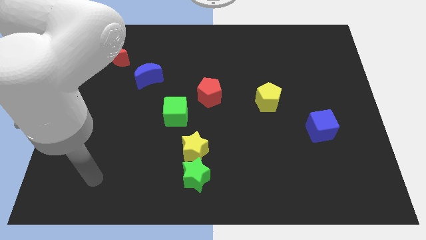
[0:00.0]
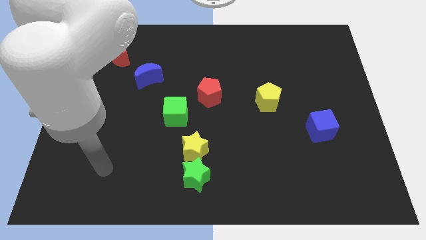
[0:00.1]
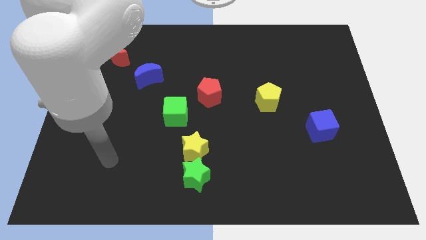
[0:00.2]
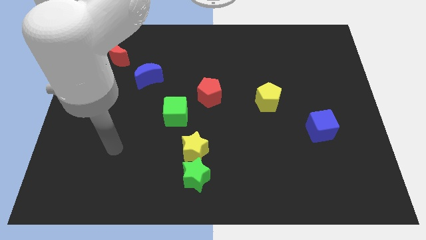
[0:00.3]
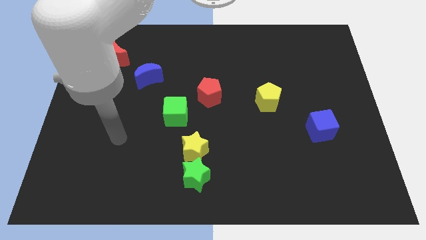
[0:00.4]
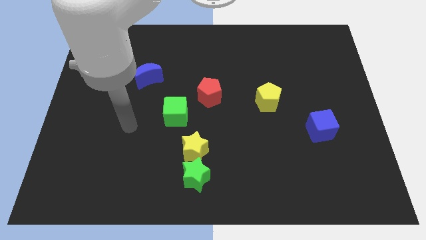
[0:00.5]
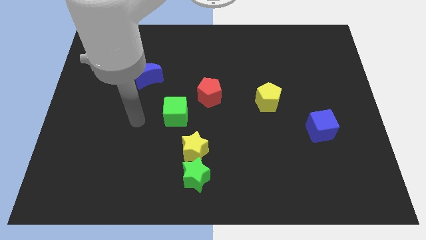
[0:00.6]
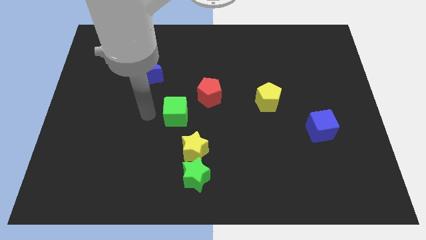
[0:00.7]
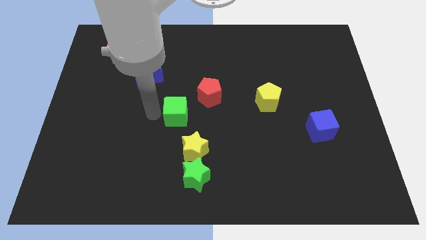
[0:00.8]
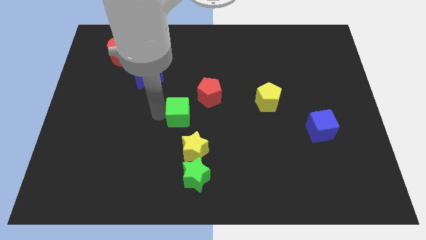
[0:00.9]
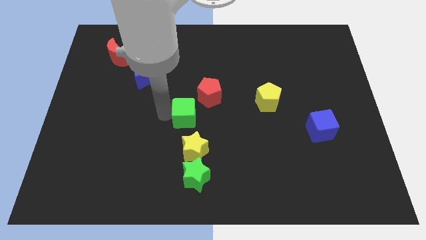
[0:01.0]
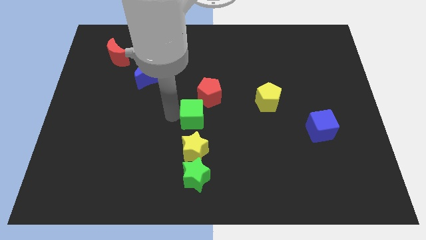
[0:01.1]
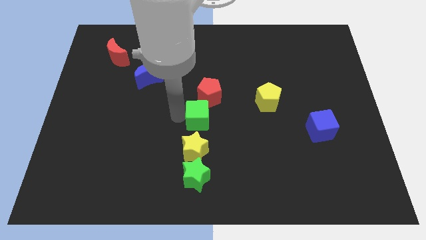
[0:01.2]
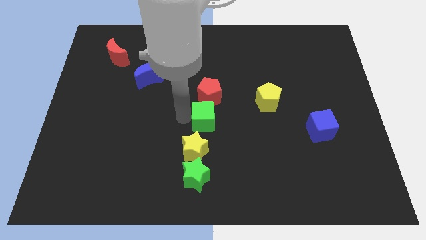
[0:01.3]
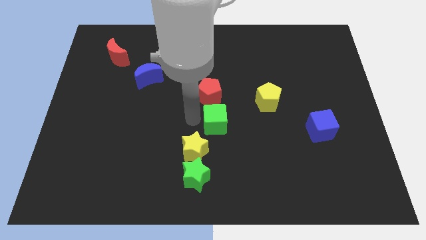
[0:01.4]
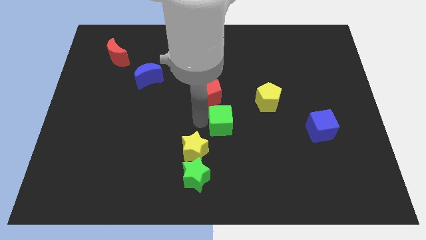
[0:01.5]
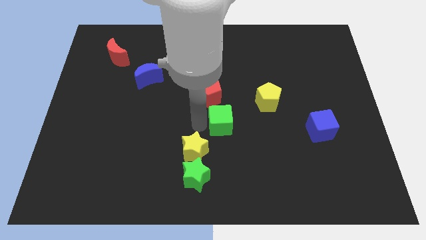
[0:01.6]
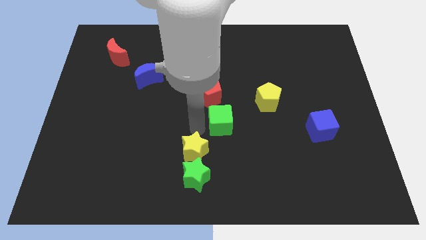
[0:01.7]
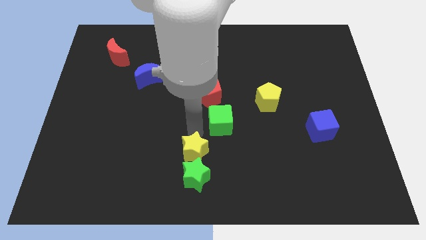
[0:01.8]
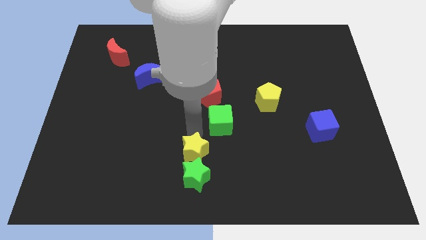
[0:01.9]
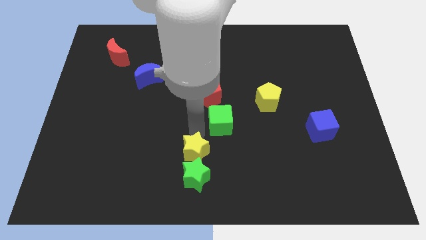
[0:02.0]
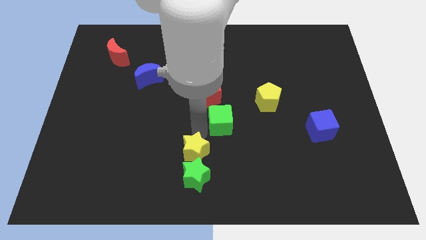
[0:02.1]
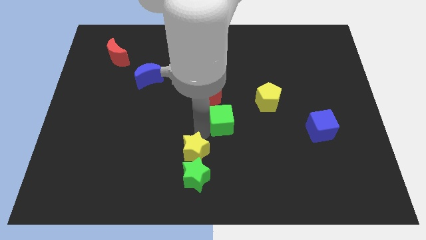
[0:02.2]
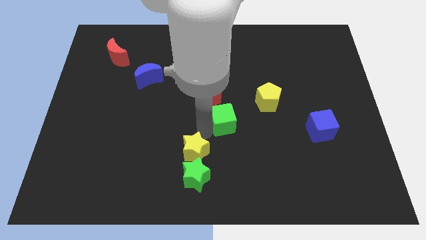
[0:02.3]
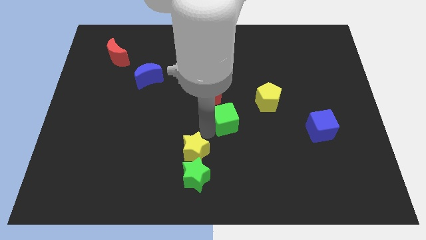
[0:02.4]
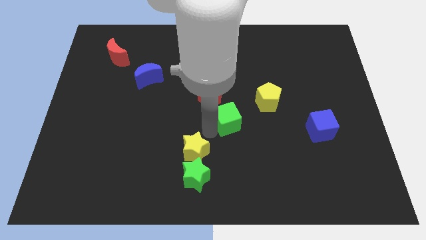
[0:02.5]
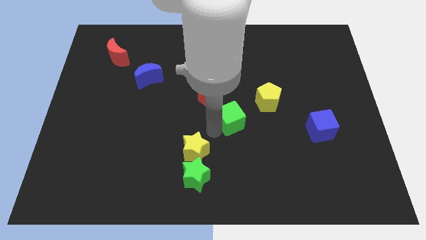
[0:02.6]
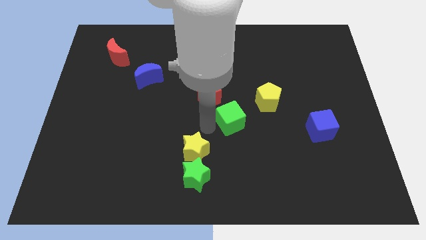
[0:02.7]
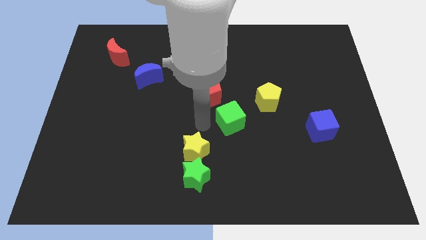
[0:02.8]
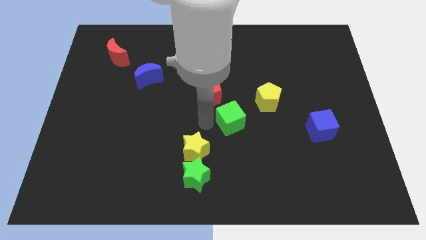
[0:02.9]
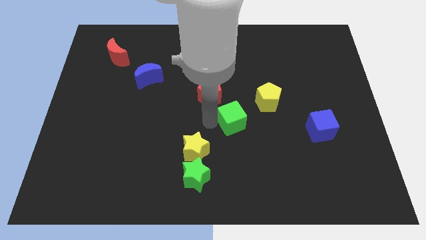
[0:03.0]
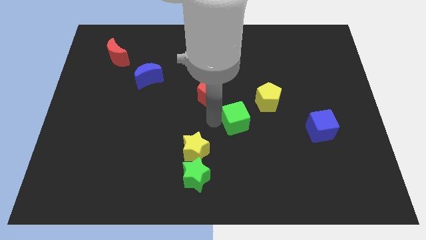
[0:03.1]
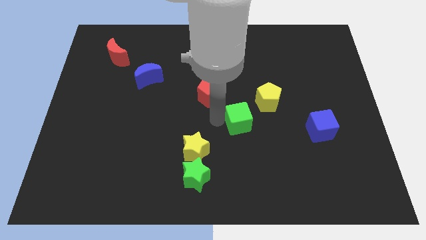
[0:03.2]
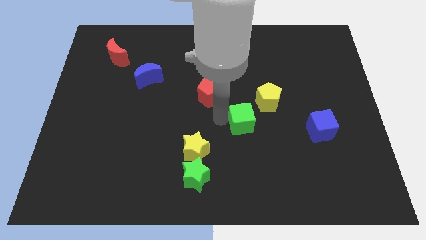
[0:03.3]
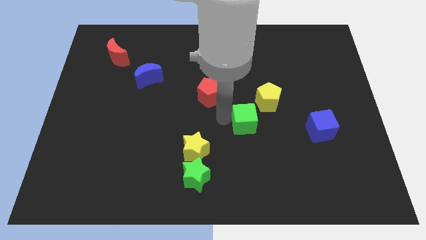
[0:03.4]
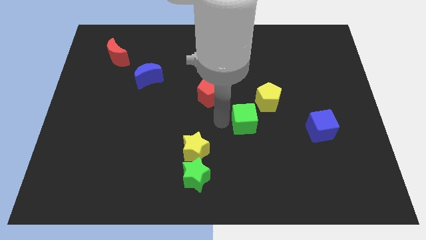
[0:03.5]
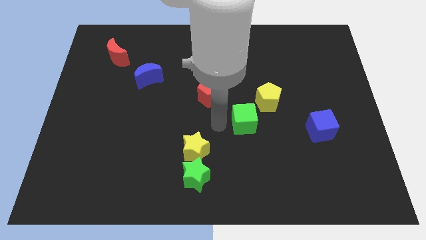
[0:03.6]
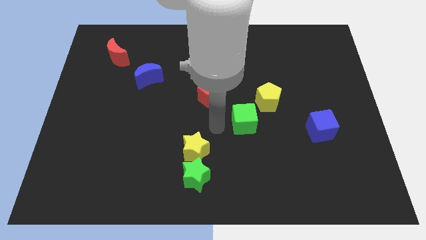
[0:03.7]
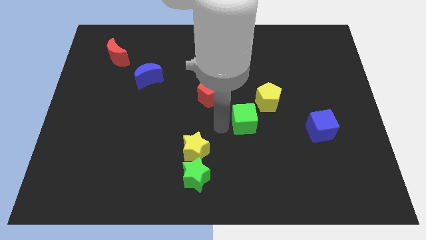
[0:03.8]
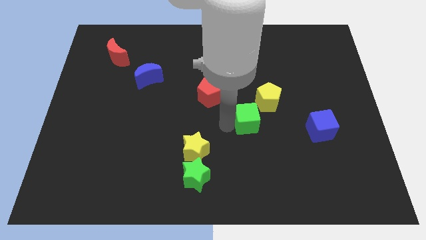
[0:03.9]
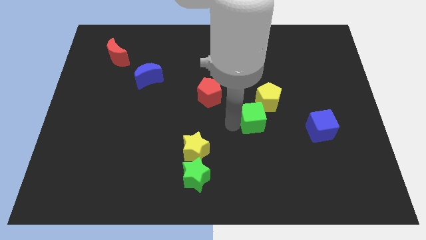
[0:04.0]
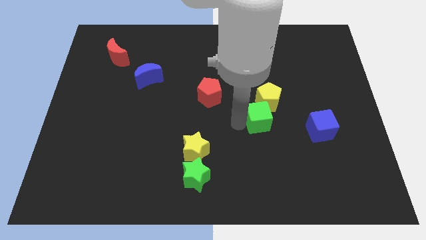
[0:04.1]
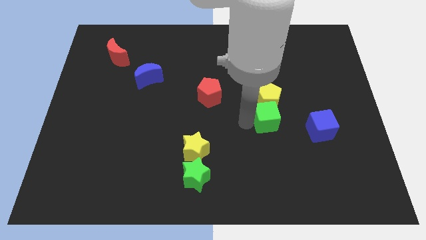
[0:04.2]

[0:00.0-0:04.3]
move the green cube to the right

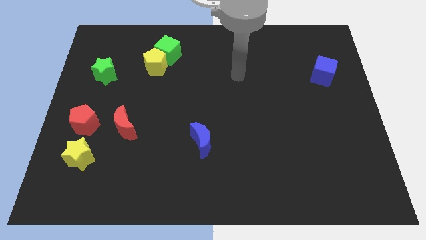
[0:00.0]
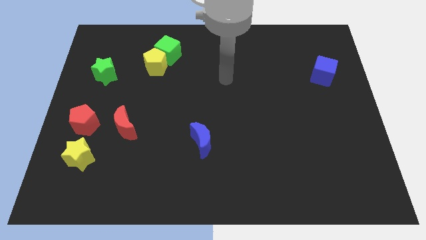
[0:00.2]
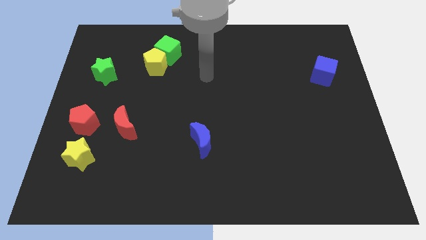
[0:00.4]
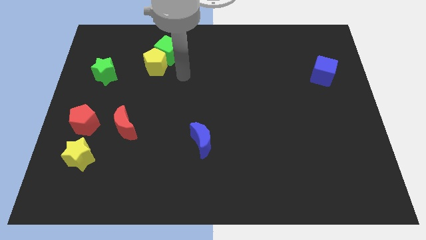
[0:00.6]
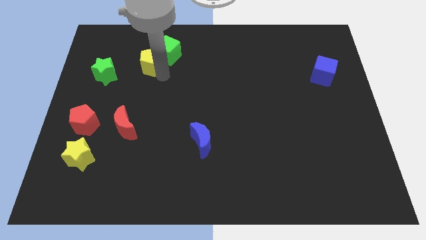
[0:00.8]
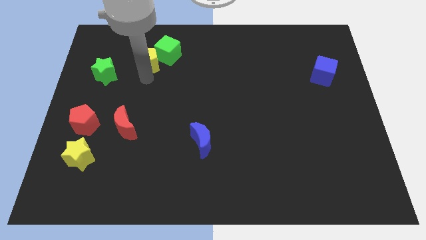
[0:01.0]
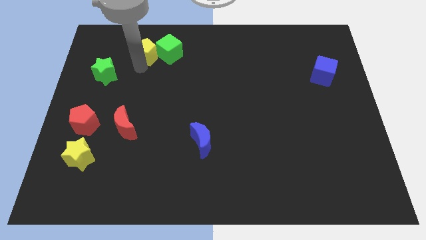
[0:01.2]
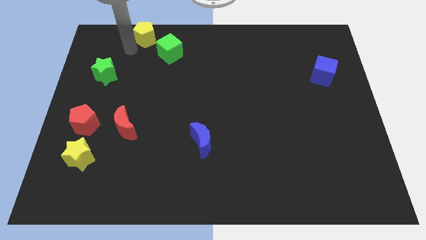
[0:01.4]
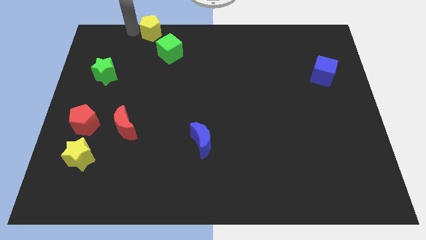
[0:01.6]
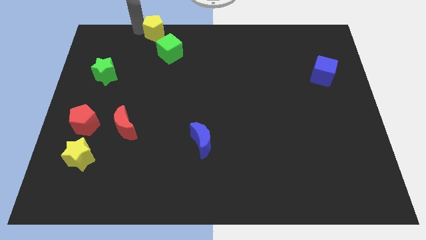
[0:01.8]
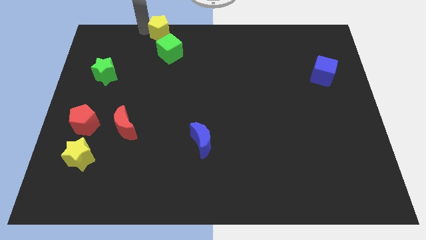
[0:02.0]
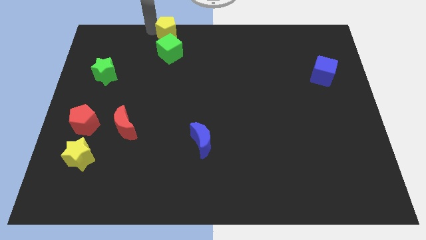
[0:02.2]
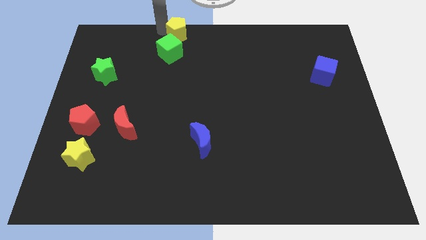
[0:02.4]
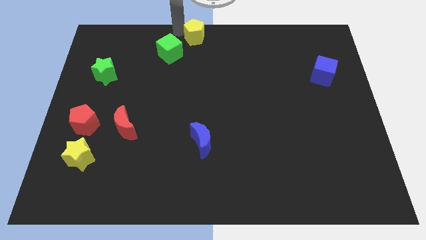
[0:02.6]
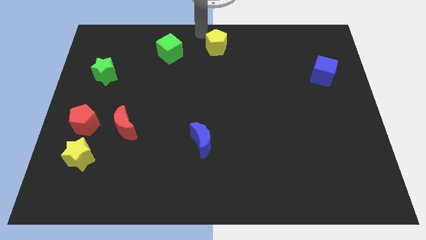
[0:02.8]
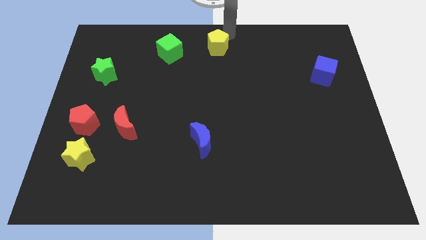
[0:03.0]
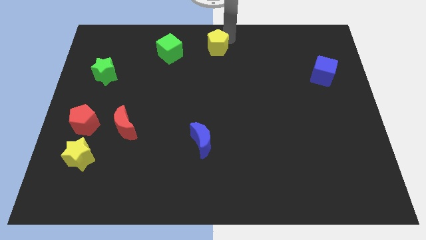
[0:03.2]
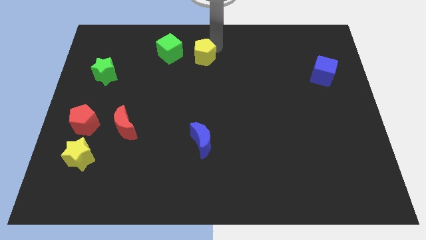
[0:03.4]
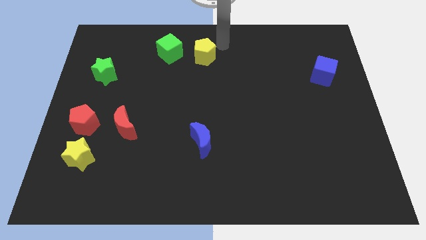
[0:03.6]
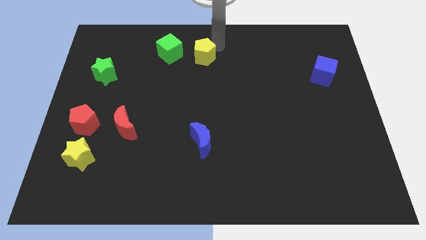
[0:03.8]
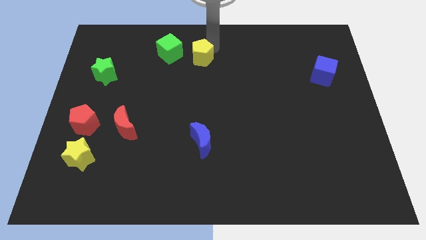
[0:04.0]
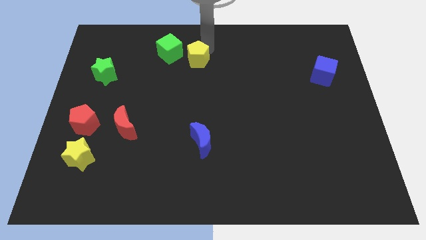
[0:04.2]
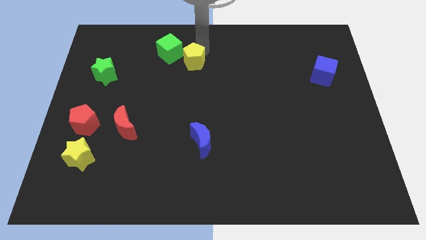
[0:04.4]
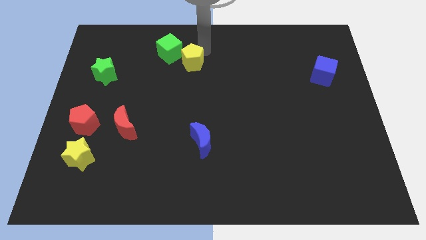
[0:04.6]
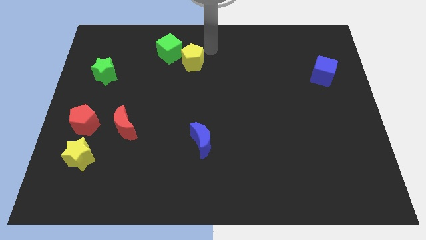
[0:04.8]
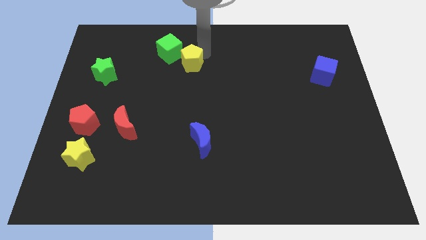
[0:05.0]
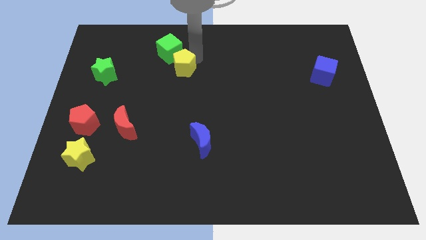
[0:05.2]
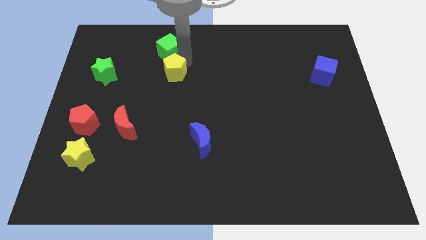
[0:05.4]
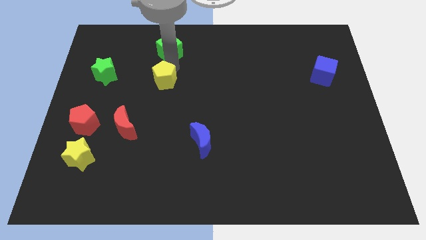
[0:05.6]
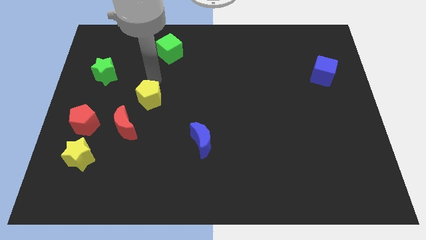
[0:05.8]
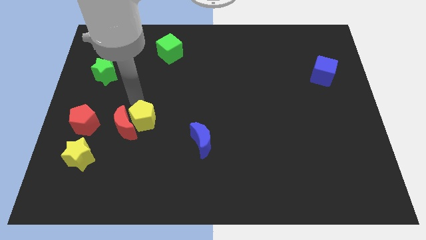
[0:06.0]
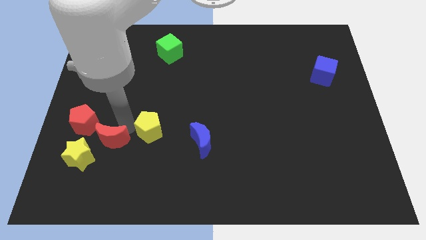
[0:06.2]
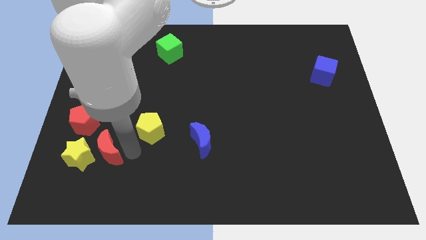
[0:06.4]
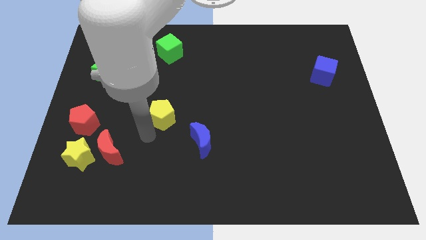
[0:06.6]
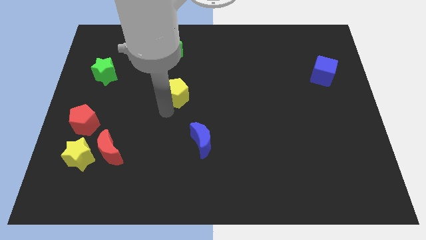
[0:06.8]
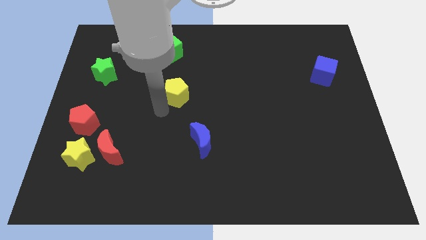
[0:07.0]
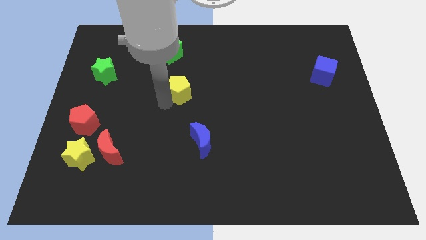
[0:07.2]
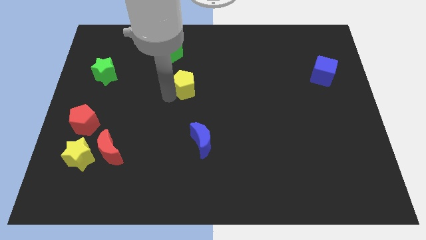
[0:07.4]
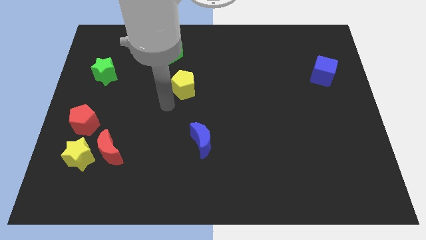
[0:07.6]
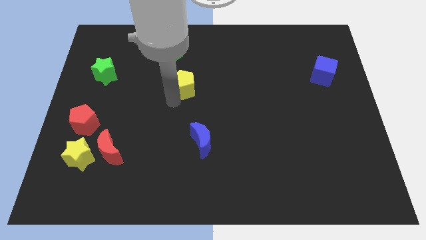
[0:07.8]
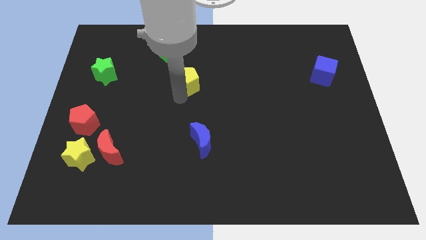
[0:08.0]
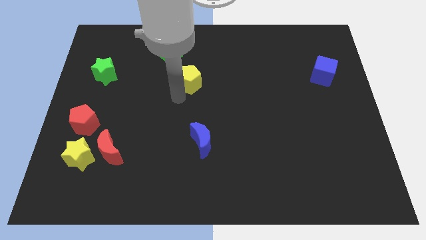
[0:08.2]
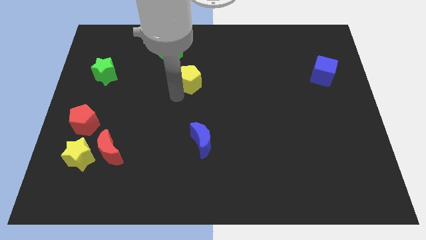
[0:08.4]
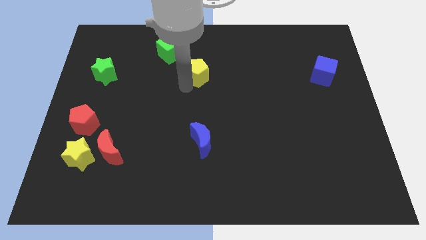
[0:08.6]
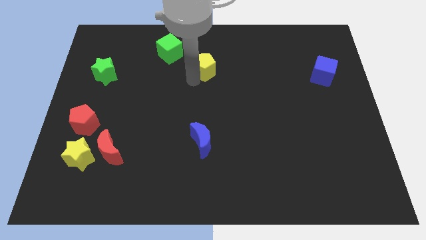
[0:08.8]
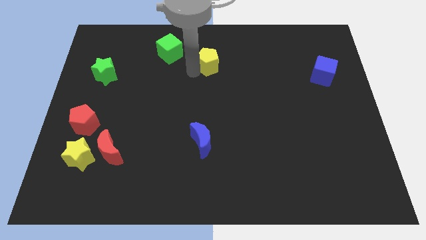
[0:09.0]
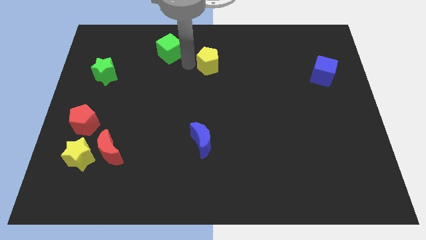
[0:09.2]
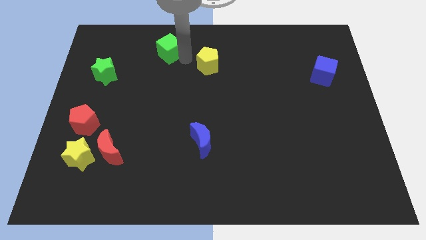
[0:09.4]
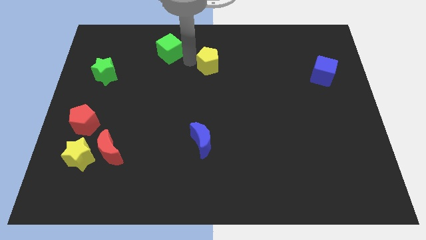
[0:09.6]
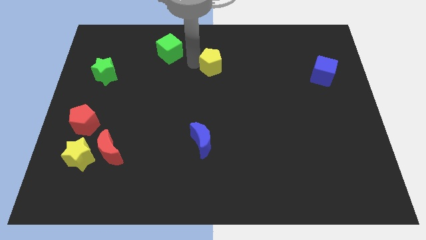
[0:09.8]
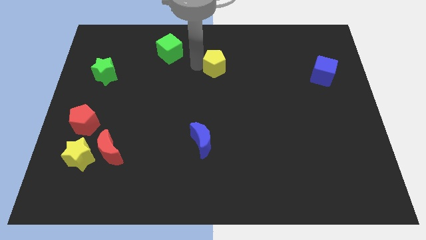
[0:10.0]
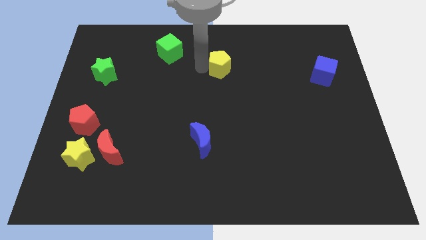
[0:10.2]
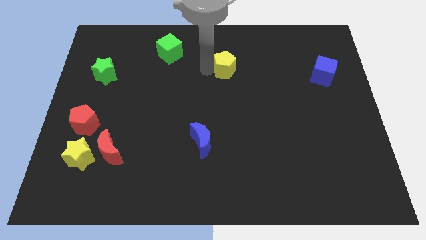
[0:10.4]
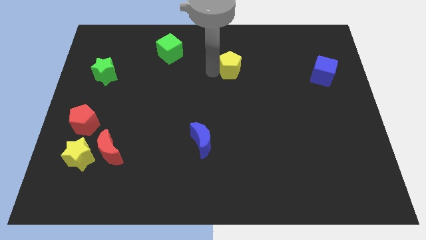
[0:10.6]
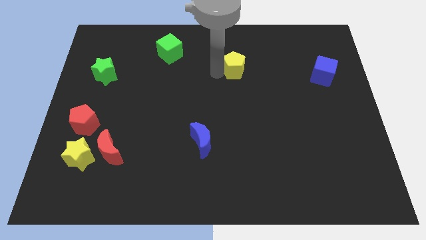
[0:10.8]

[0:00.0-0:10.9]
slide the yellow pentagon to the right
